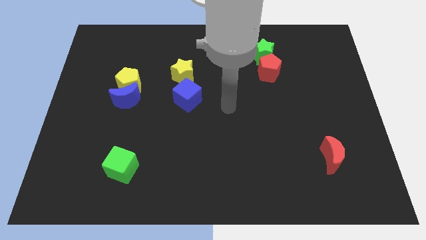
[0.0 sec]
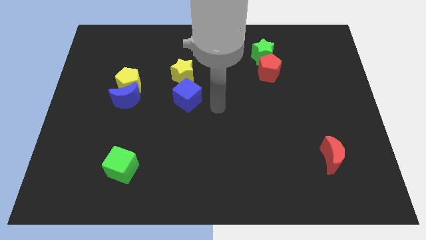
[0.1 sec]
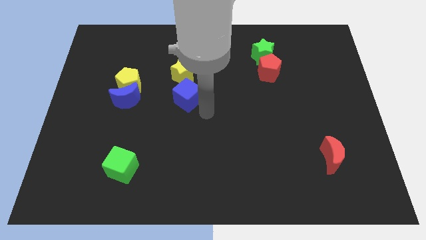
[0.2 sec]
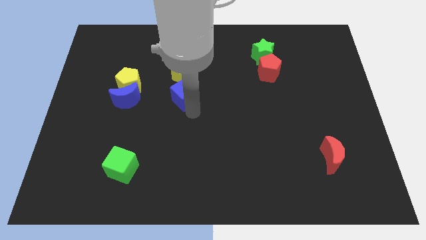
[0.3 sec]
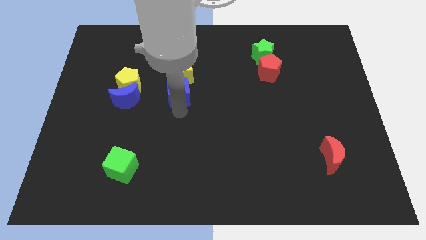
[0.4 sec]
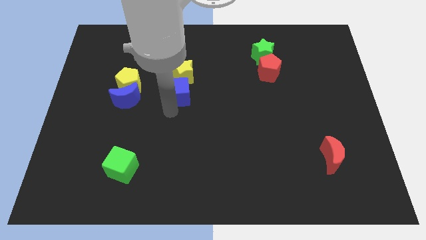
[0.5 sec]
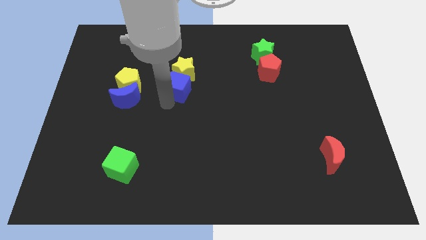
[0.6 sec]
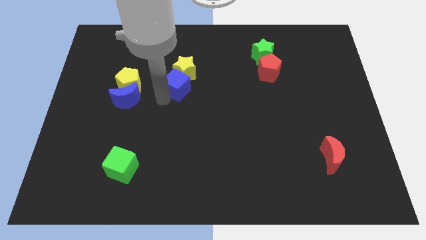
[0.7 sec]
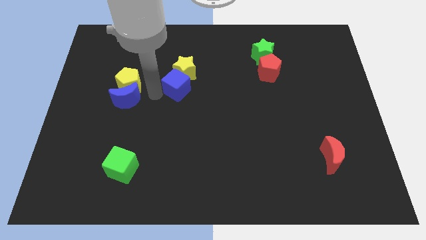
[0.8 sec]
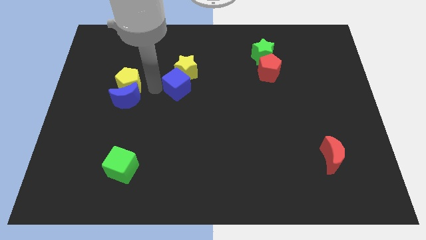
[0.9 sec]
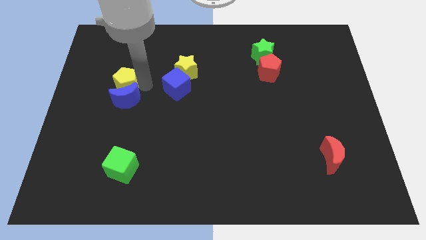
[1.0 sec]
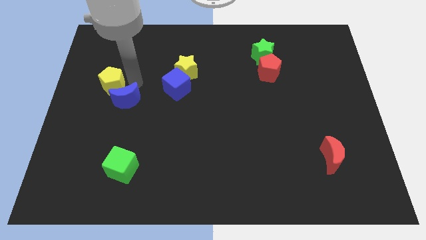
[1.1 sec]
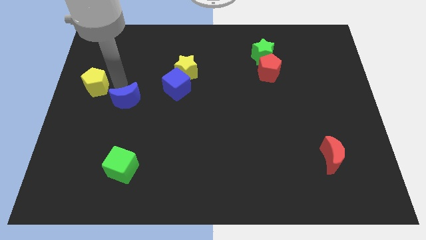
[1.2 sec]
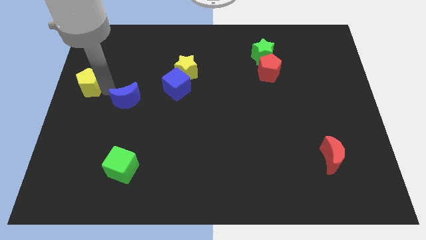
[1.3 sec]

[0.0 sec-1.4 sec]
move the blue moon away from the yellow pentagon

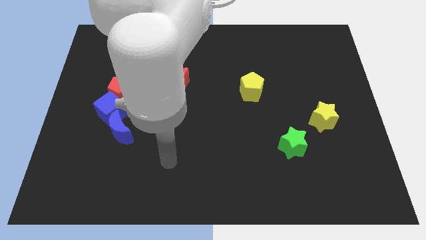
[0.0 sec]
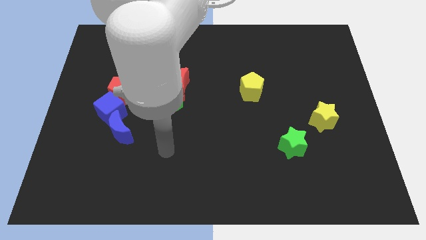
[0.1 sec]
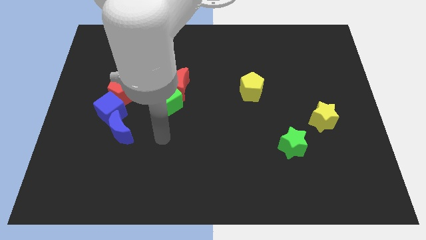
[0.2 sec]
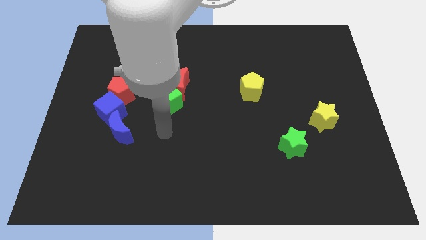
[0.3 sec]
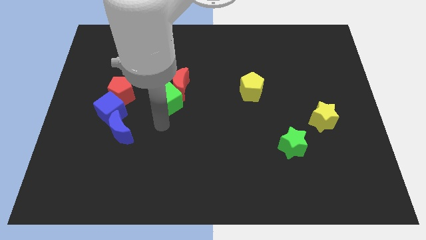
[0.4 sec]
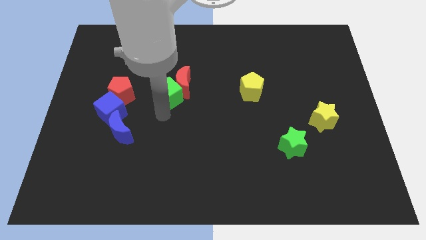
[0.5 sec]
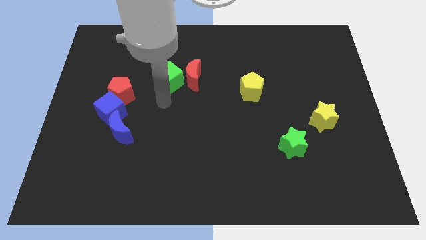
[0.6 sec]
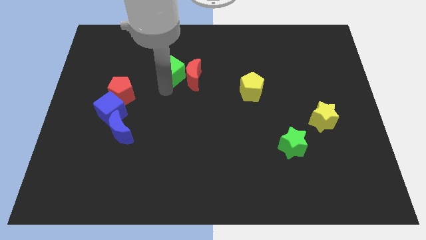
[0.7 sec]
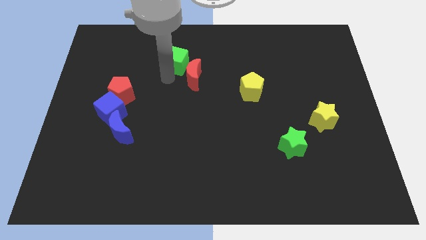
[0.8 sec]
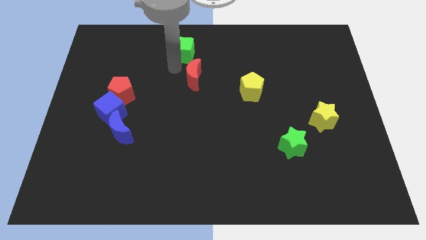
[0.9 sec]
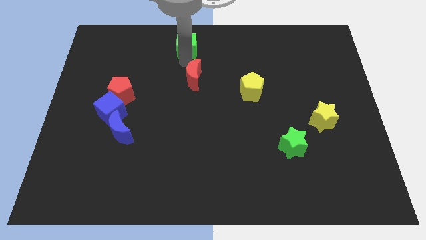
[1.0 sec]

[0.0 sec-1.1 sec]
separate the red moon from the green cube

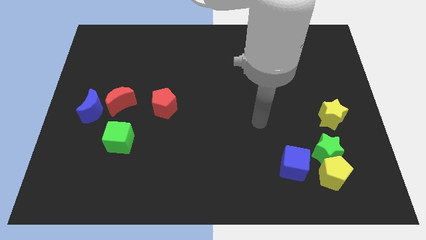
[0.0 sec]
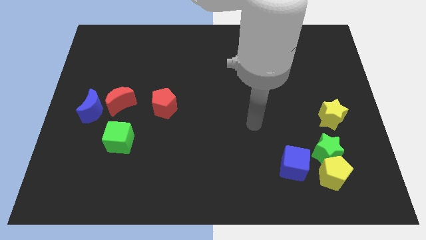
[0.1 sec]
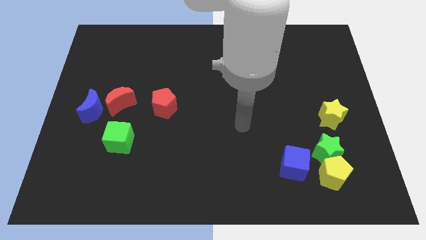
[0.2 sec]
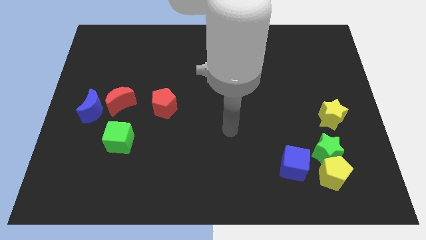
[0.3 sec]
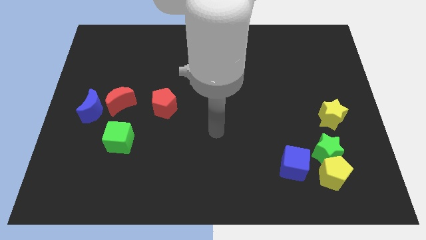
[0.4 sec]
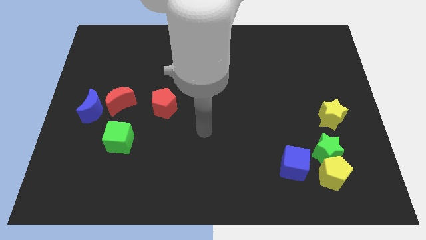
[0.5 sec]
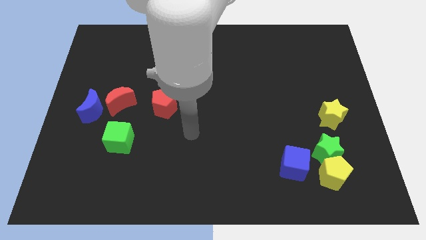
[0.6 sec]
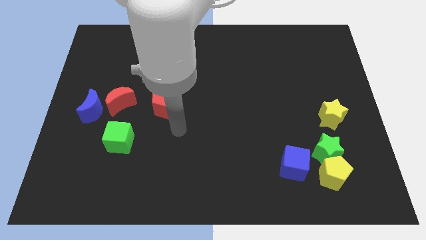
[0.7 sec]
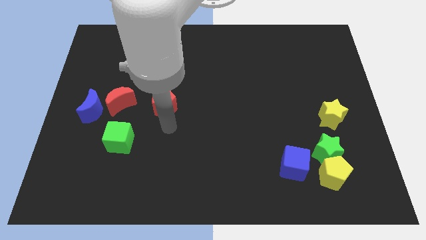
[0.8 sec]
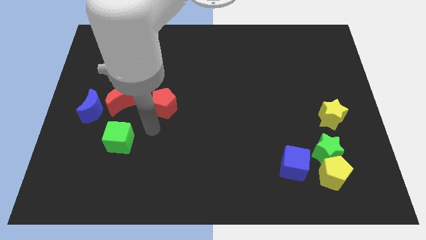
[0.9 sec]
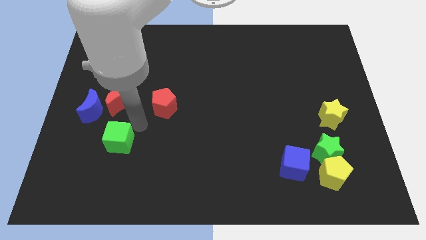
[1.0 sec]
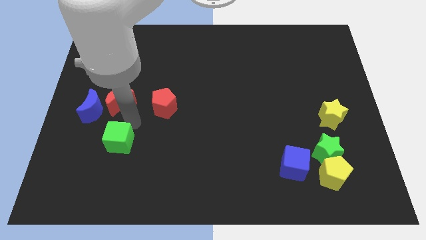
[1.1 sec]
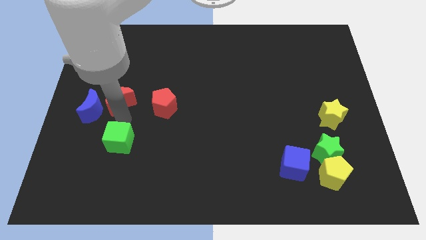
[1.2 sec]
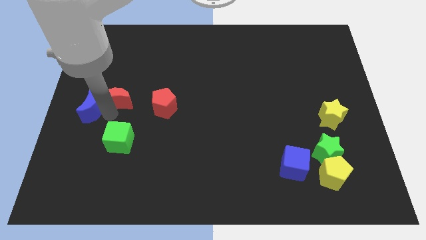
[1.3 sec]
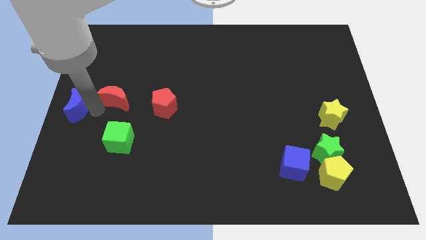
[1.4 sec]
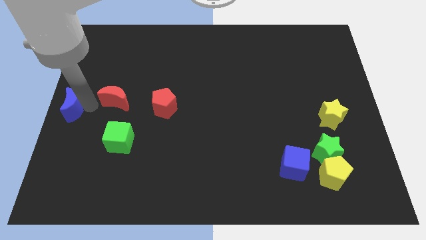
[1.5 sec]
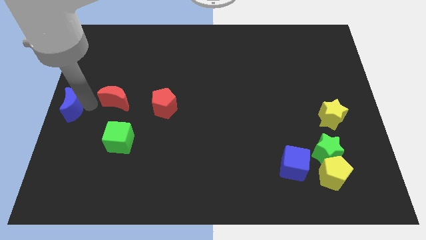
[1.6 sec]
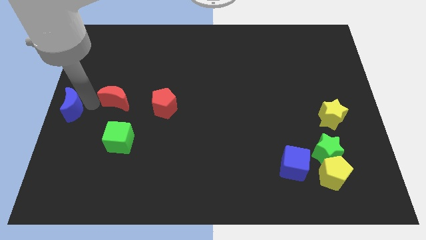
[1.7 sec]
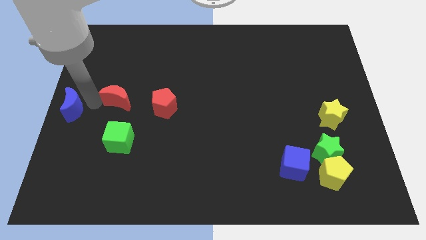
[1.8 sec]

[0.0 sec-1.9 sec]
move the red moon away from the blue moon

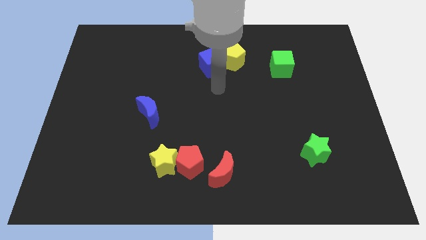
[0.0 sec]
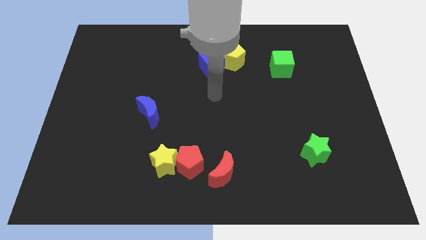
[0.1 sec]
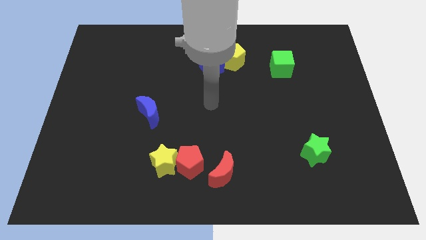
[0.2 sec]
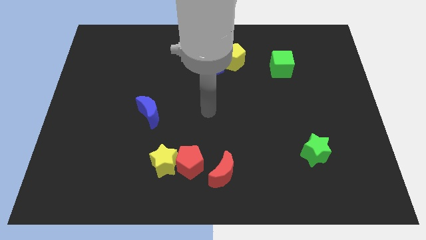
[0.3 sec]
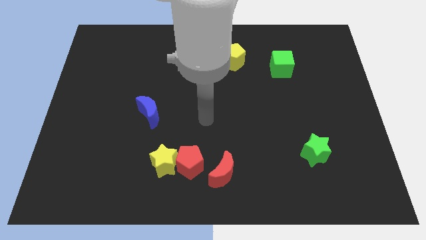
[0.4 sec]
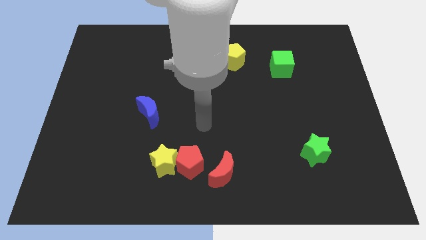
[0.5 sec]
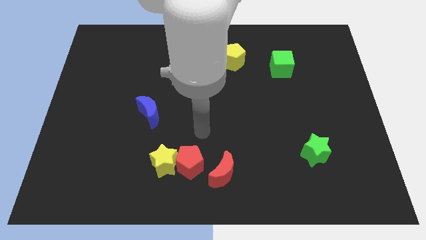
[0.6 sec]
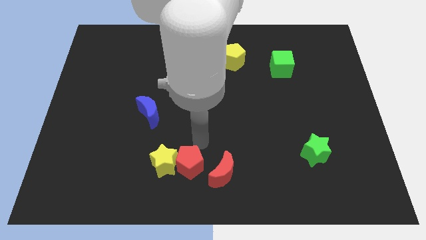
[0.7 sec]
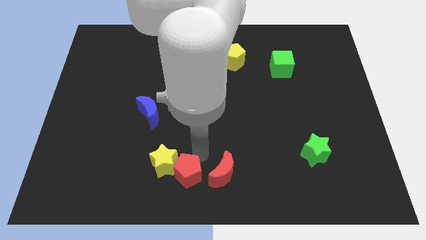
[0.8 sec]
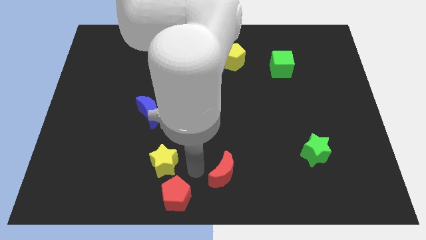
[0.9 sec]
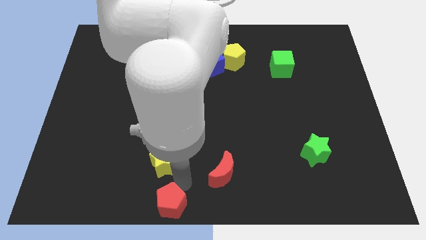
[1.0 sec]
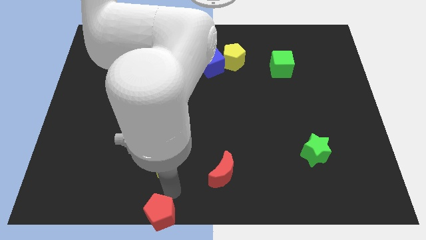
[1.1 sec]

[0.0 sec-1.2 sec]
move the yellow star away from the red pentagon

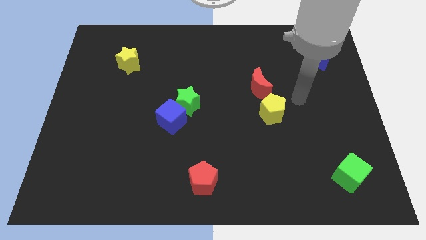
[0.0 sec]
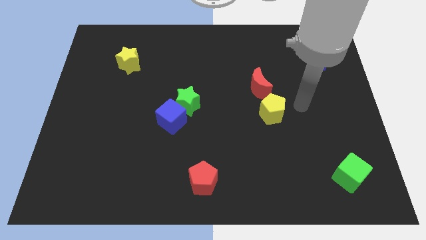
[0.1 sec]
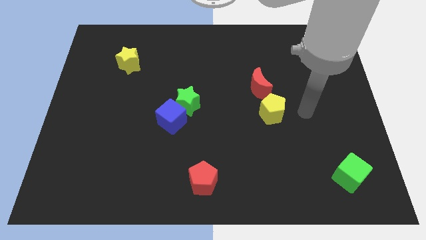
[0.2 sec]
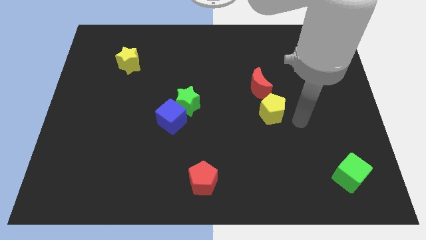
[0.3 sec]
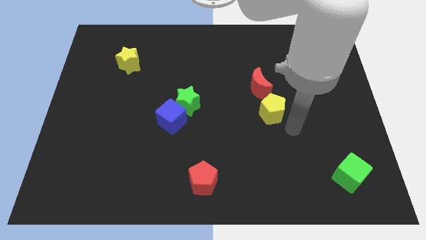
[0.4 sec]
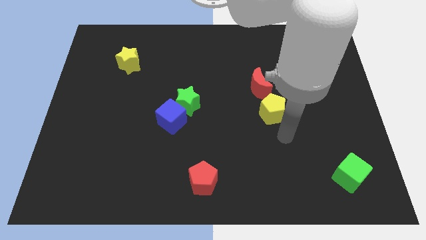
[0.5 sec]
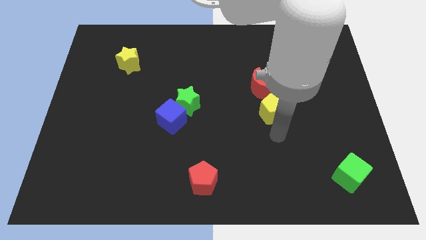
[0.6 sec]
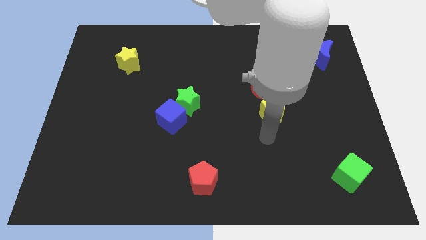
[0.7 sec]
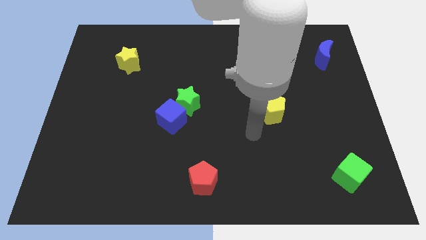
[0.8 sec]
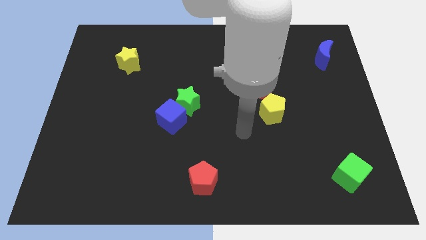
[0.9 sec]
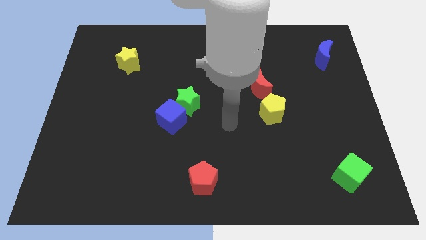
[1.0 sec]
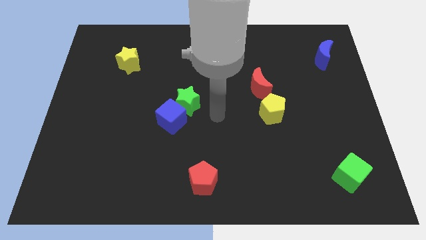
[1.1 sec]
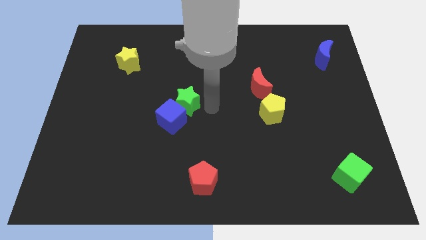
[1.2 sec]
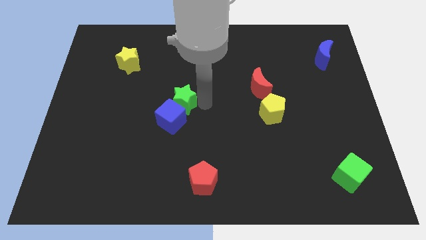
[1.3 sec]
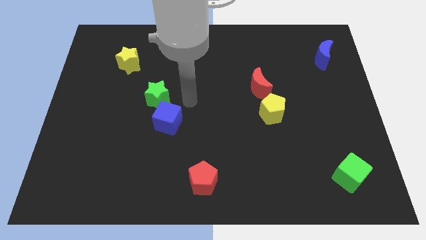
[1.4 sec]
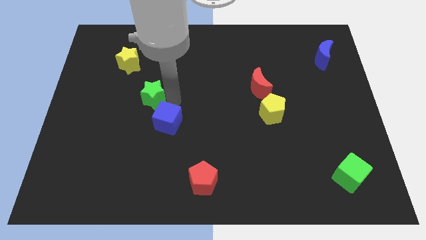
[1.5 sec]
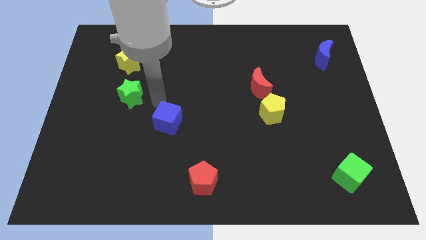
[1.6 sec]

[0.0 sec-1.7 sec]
pull the blue cube apart from the green star

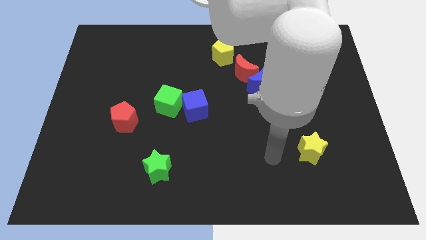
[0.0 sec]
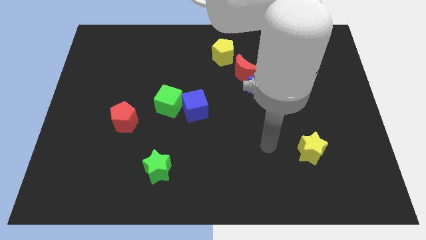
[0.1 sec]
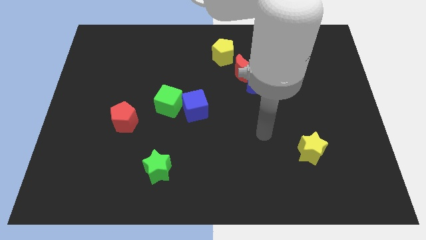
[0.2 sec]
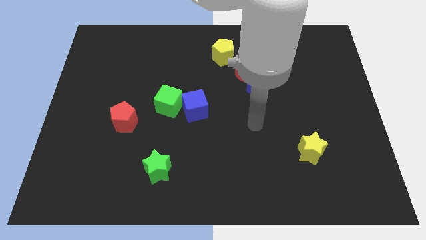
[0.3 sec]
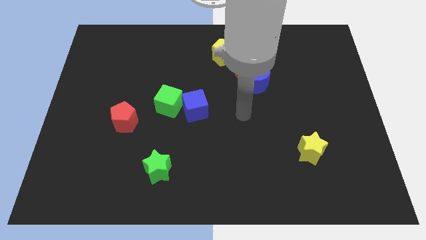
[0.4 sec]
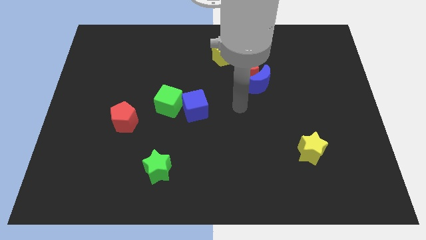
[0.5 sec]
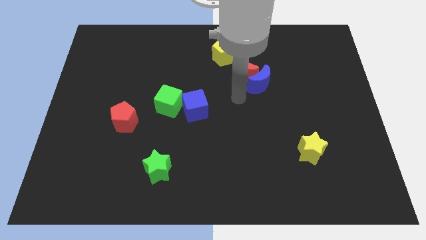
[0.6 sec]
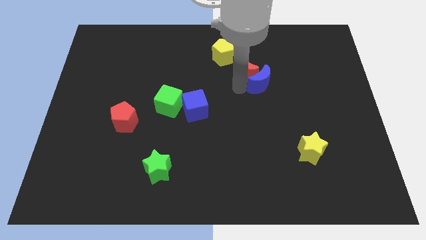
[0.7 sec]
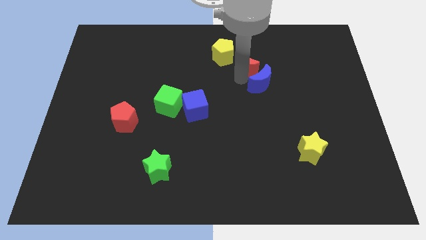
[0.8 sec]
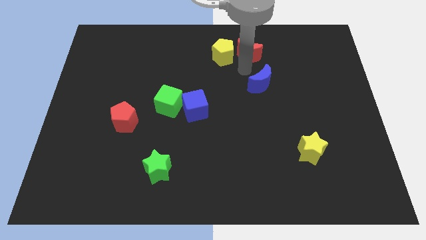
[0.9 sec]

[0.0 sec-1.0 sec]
move the blue moon away from the red moon

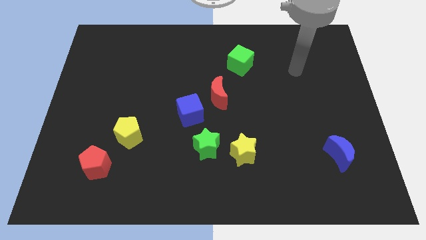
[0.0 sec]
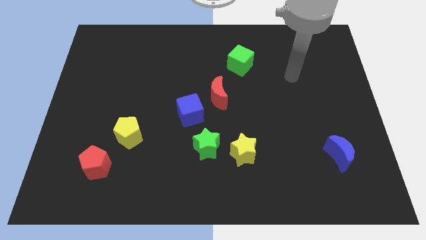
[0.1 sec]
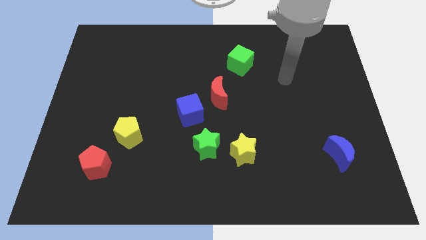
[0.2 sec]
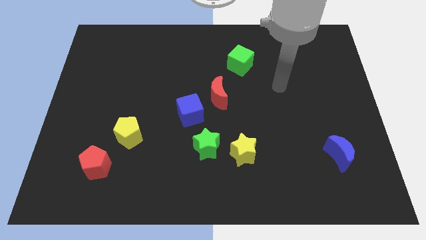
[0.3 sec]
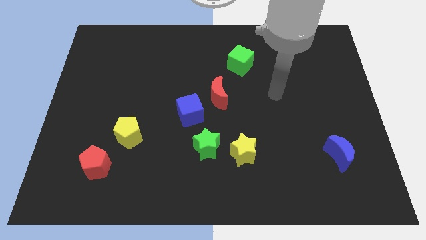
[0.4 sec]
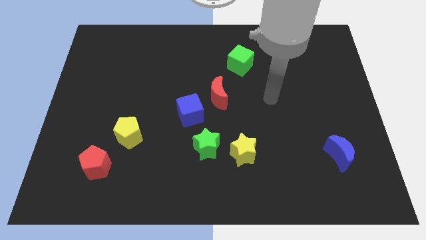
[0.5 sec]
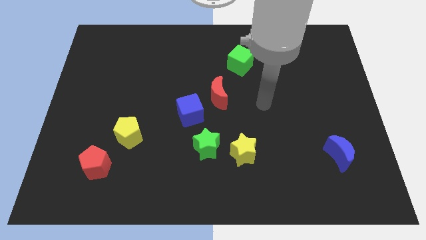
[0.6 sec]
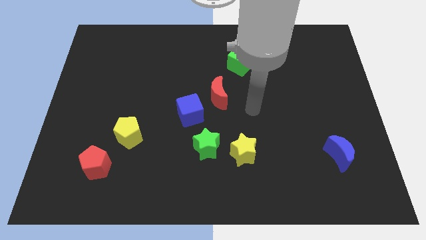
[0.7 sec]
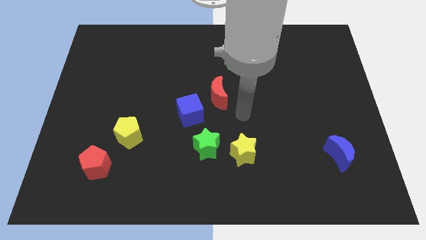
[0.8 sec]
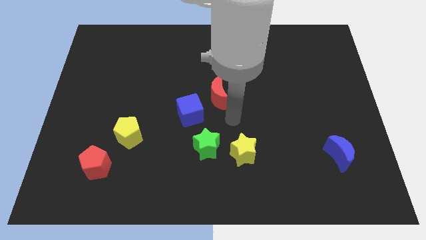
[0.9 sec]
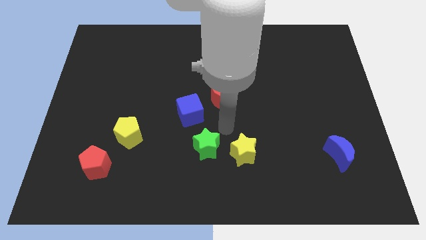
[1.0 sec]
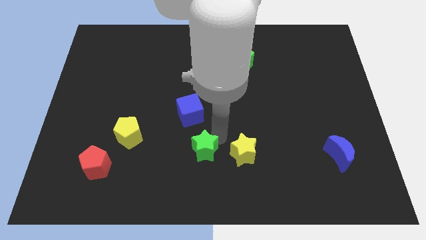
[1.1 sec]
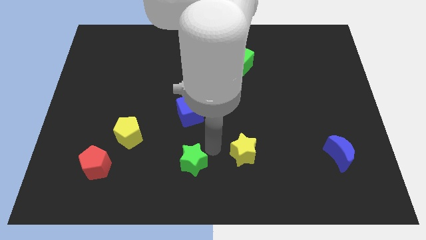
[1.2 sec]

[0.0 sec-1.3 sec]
pull the yellow star apart from the green star
